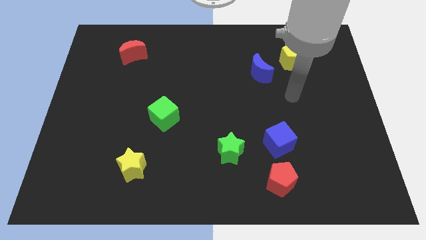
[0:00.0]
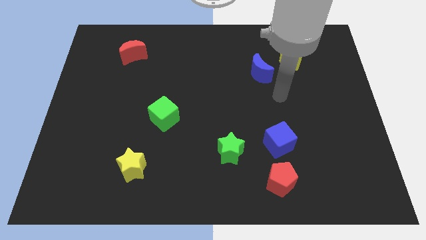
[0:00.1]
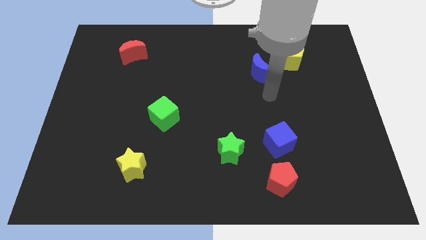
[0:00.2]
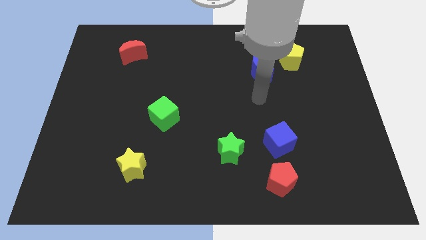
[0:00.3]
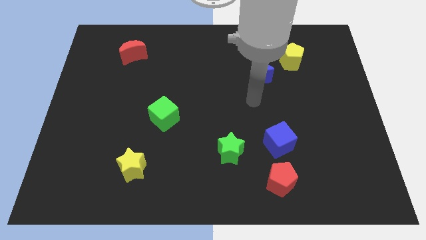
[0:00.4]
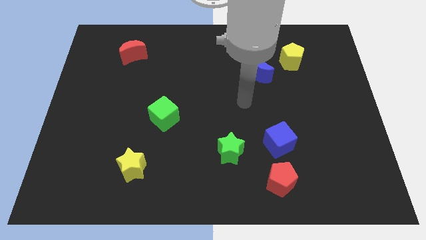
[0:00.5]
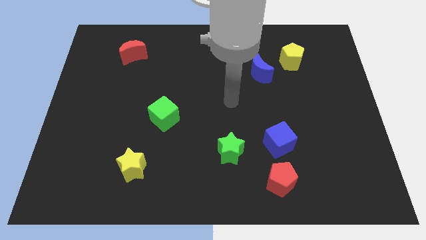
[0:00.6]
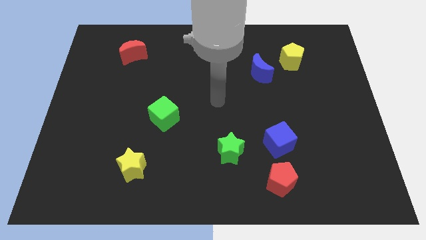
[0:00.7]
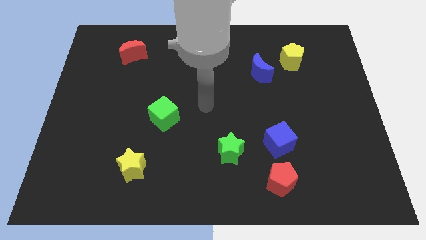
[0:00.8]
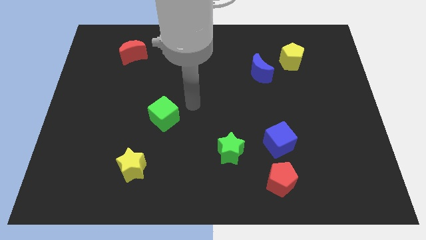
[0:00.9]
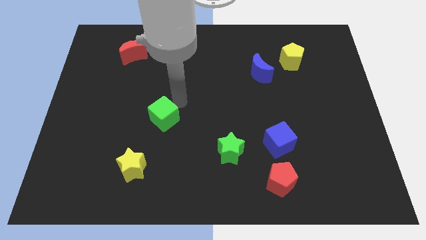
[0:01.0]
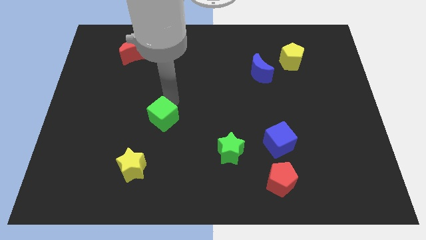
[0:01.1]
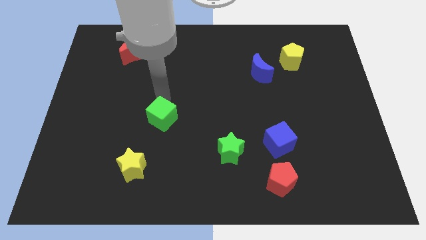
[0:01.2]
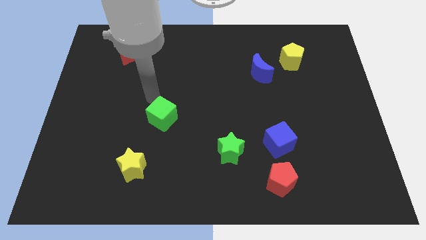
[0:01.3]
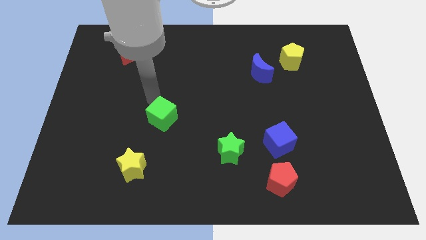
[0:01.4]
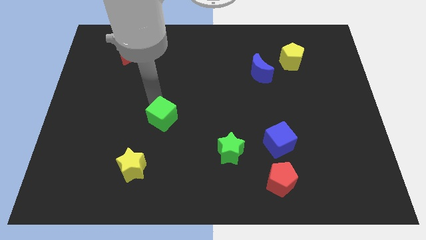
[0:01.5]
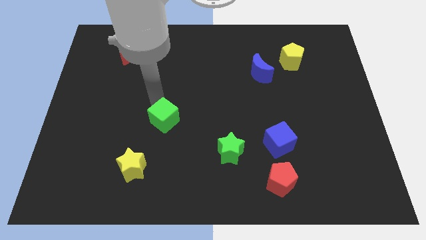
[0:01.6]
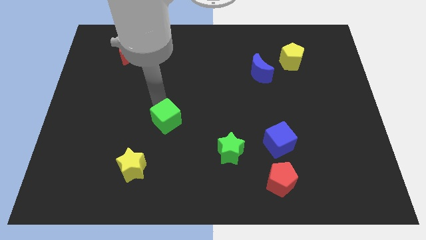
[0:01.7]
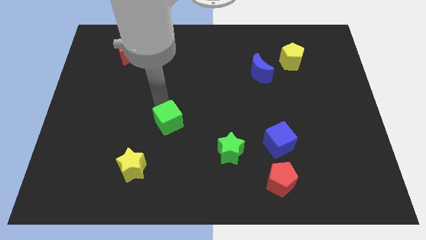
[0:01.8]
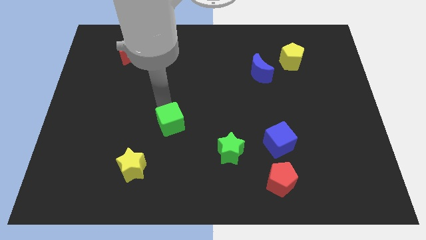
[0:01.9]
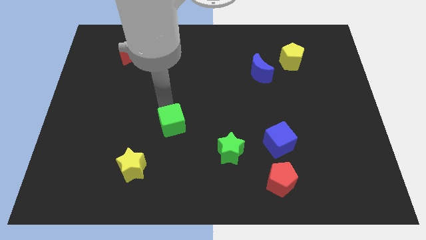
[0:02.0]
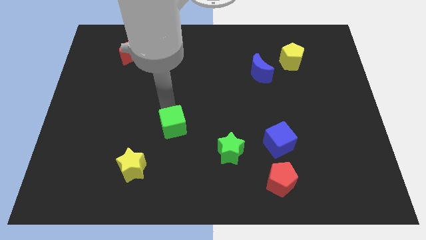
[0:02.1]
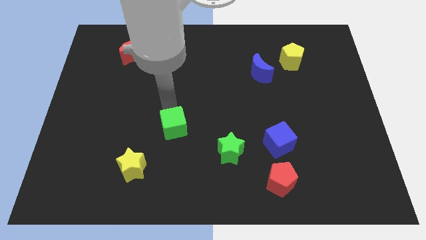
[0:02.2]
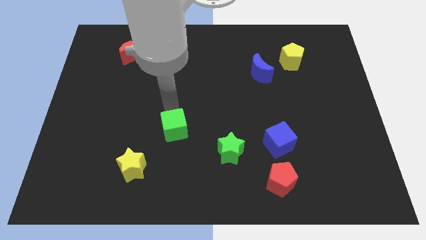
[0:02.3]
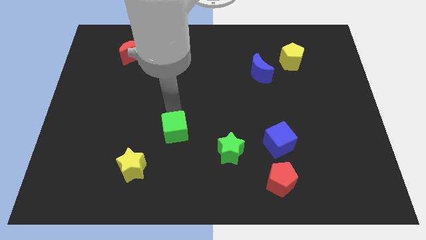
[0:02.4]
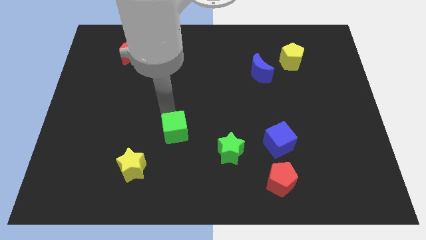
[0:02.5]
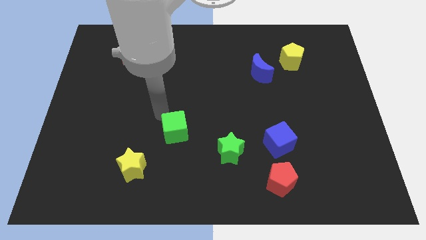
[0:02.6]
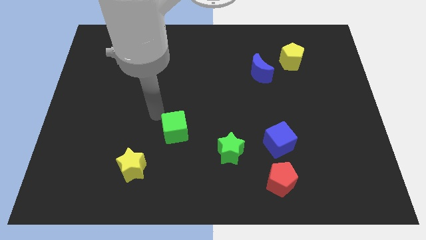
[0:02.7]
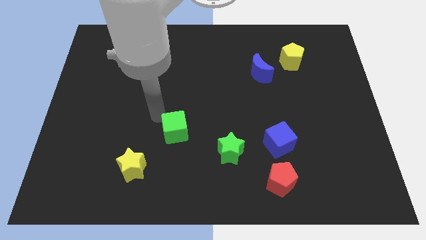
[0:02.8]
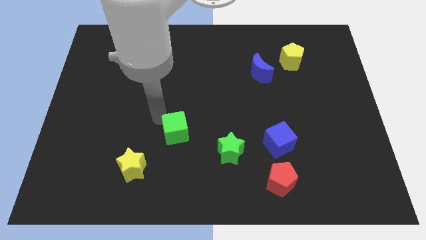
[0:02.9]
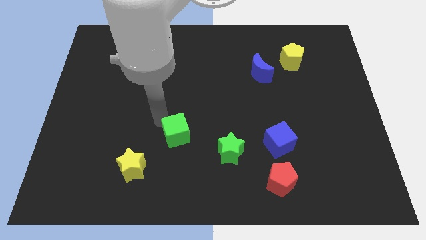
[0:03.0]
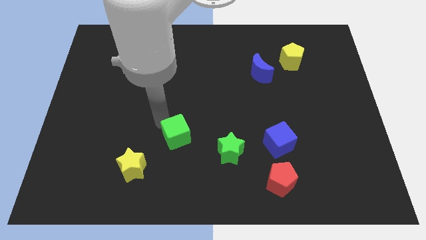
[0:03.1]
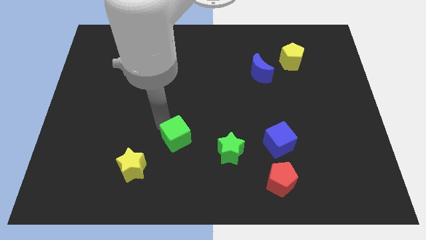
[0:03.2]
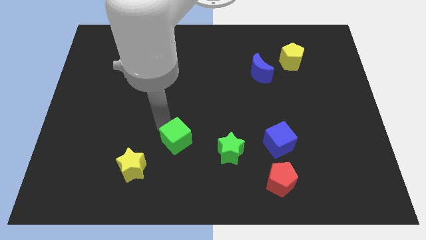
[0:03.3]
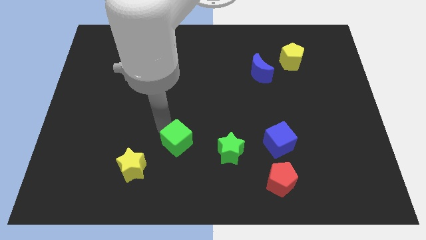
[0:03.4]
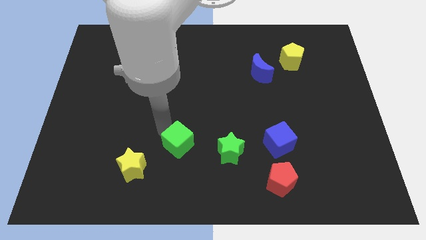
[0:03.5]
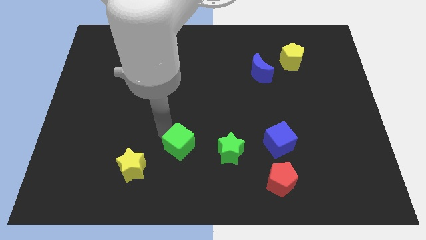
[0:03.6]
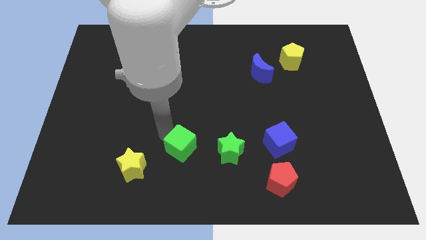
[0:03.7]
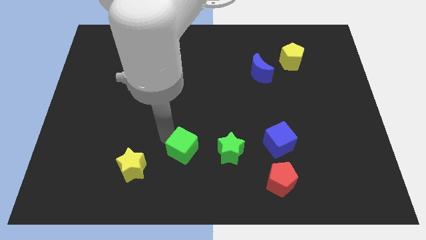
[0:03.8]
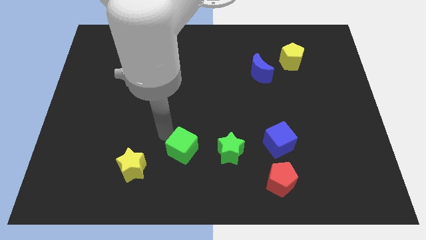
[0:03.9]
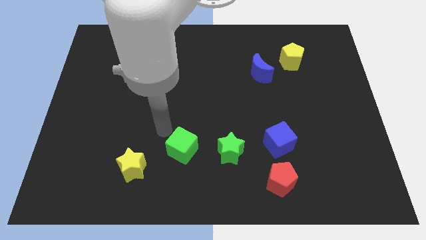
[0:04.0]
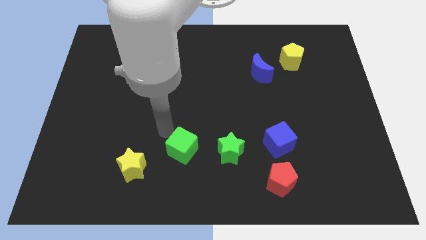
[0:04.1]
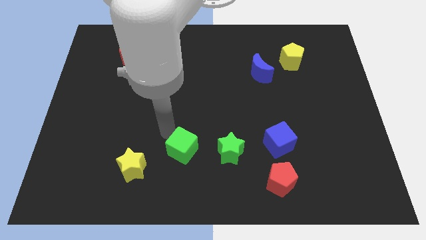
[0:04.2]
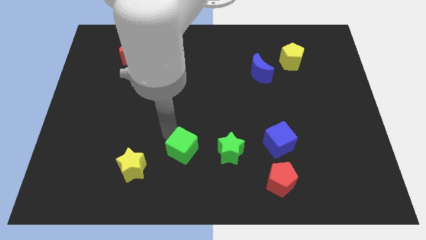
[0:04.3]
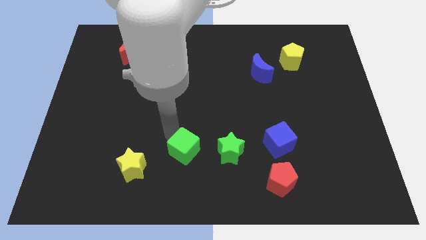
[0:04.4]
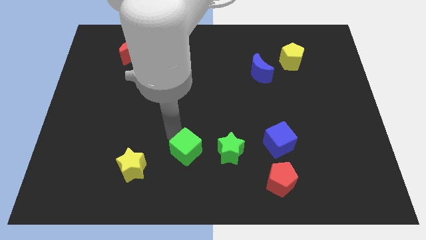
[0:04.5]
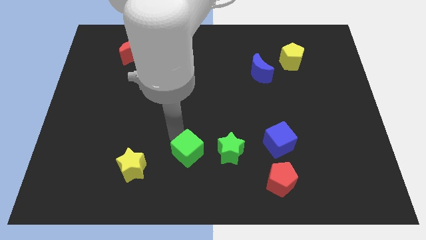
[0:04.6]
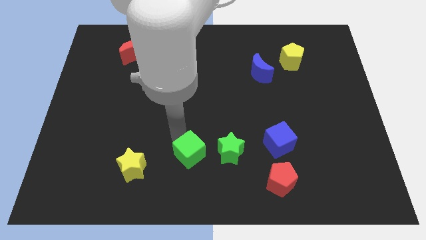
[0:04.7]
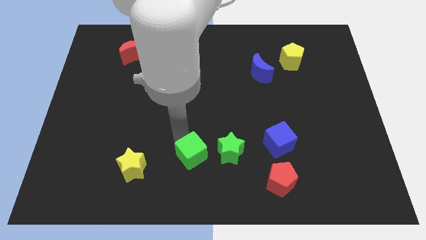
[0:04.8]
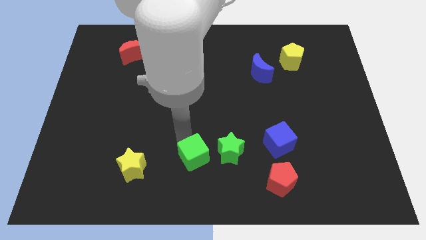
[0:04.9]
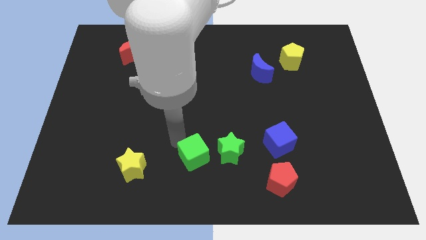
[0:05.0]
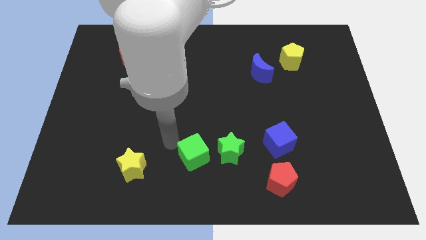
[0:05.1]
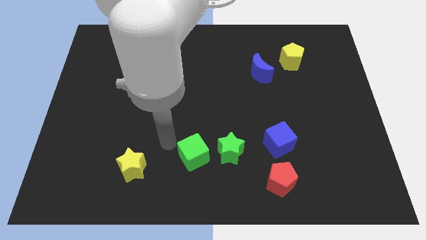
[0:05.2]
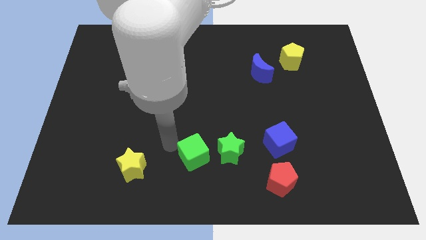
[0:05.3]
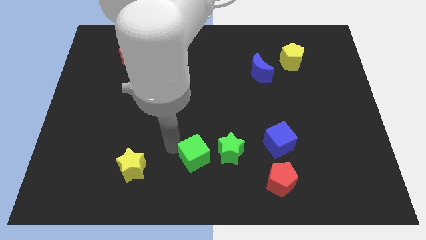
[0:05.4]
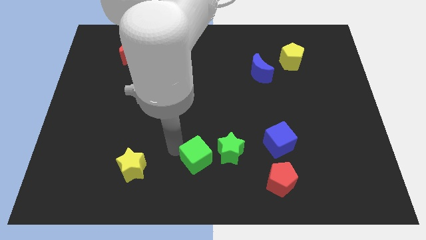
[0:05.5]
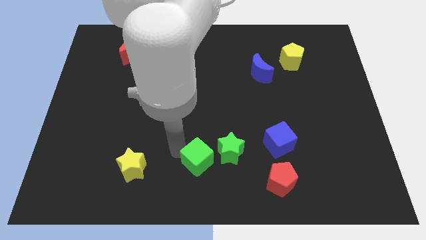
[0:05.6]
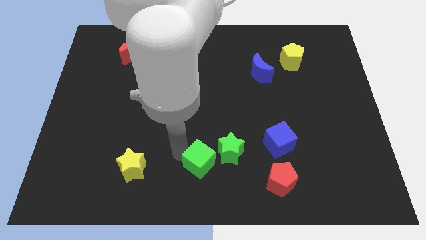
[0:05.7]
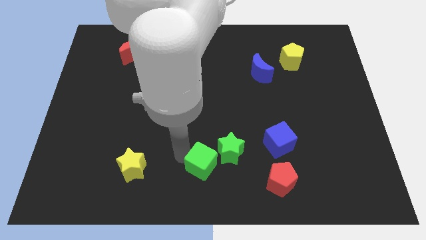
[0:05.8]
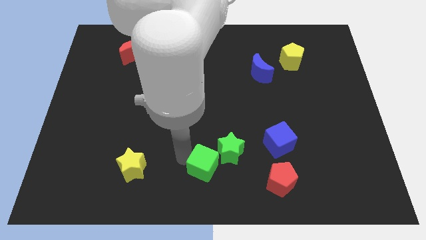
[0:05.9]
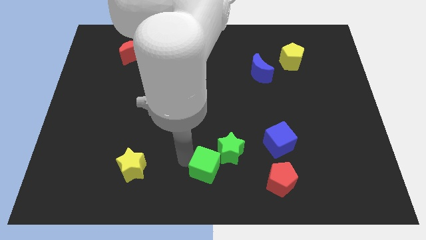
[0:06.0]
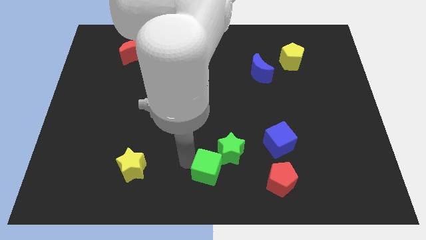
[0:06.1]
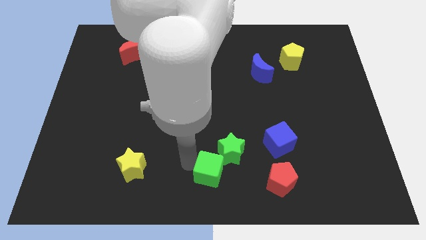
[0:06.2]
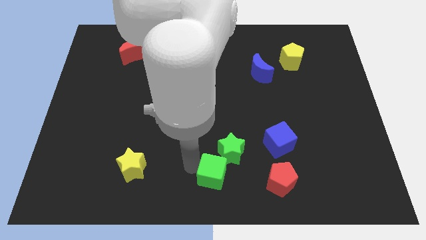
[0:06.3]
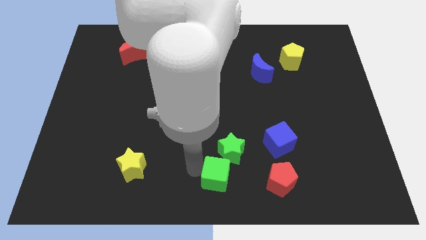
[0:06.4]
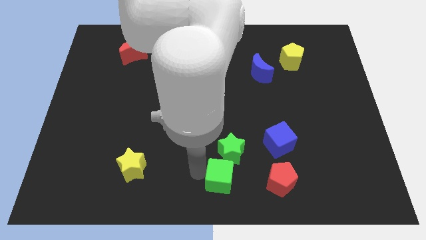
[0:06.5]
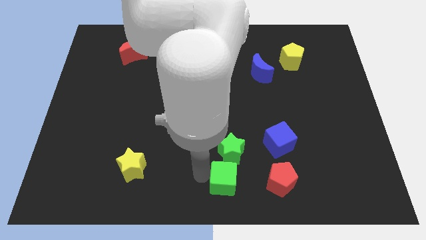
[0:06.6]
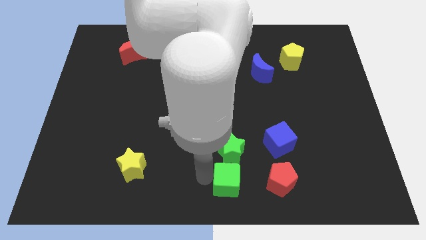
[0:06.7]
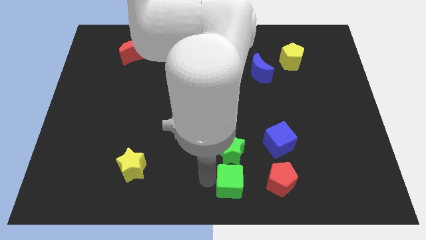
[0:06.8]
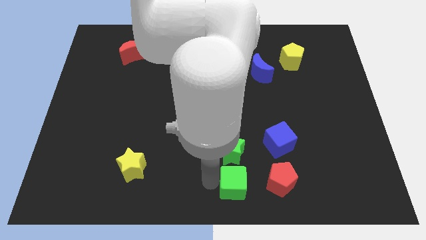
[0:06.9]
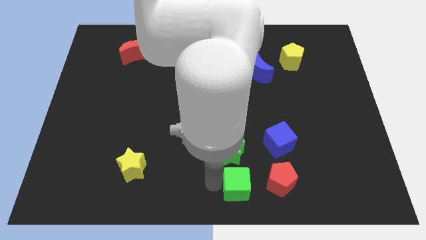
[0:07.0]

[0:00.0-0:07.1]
slide the green cube to the bottom right side of the green star

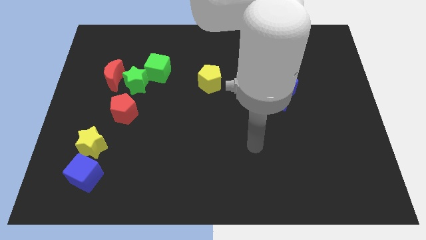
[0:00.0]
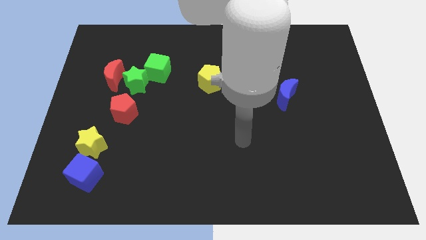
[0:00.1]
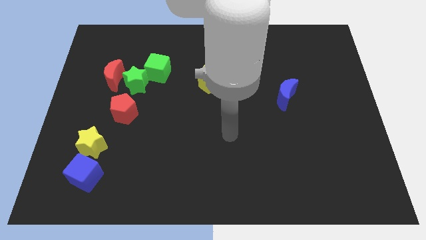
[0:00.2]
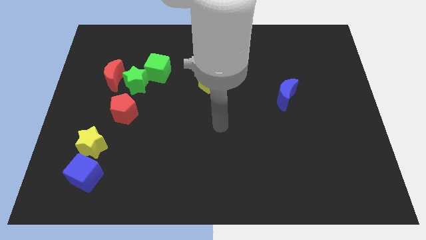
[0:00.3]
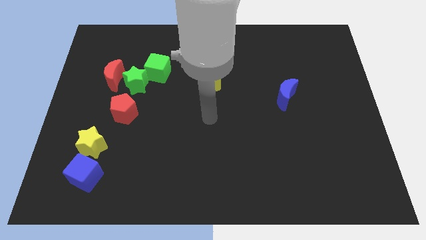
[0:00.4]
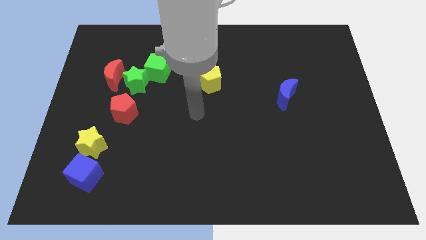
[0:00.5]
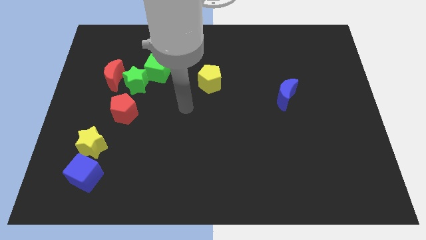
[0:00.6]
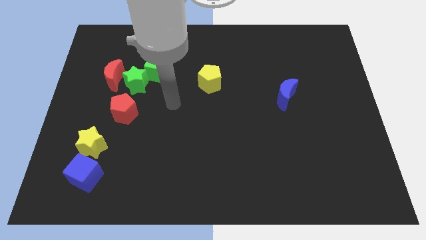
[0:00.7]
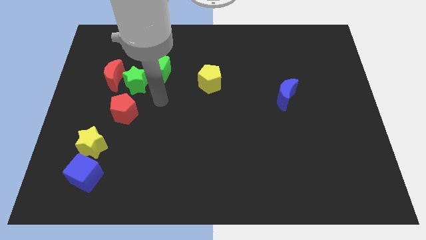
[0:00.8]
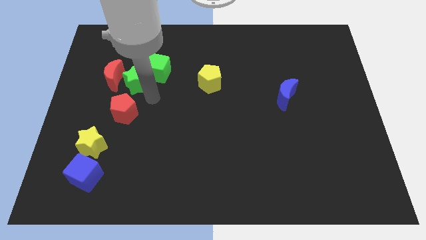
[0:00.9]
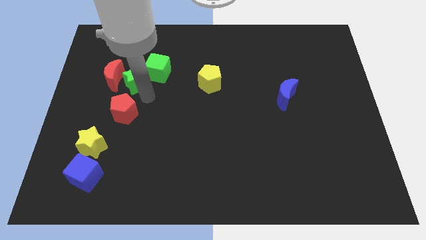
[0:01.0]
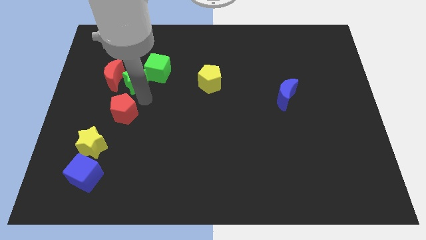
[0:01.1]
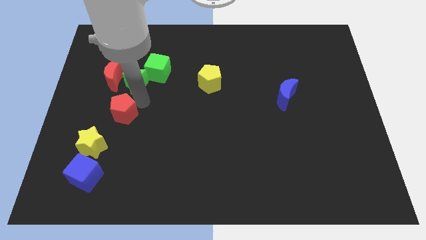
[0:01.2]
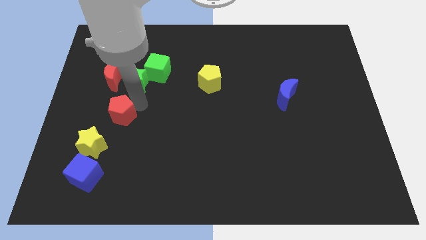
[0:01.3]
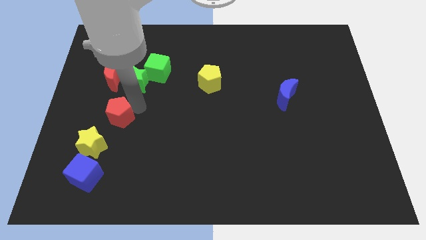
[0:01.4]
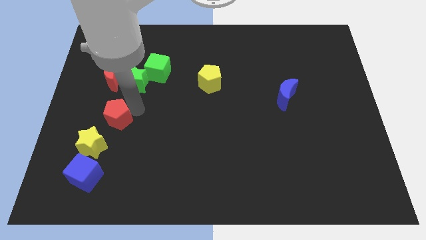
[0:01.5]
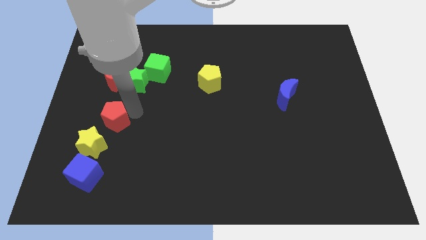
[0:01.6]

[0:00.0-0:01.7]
put the red pentagon above the blue cube
